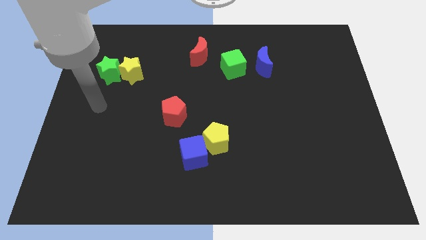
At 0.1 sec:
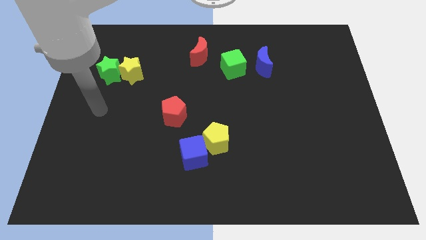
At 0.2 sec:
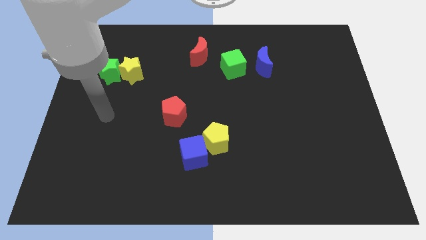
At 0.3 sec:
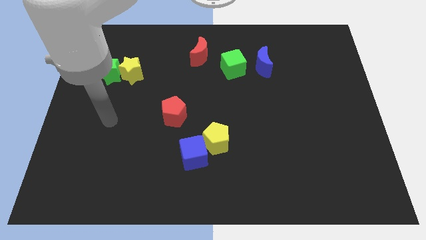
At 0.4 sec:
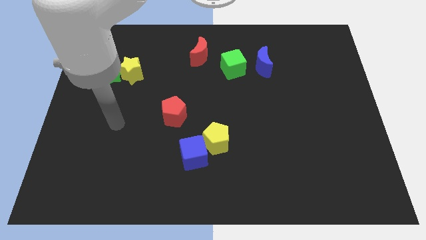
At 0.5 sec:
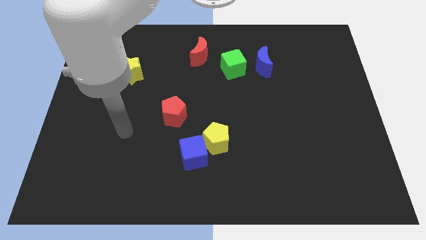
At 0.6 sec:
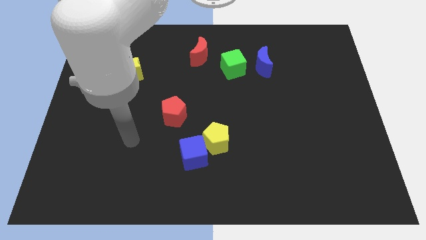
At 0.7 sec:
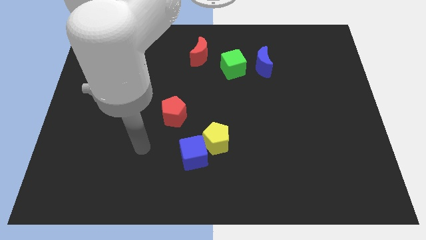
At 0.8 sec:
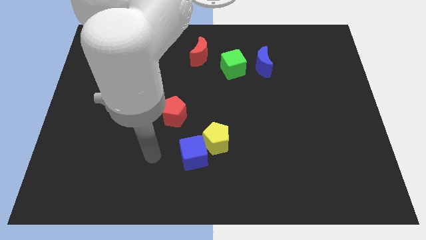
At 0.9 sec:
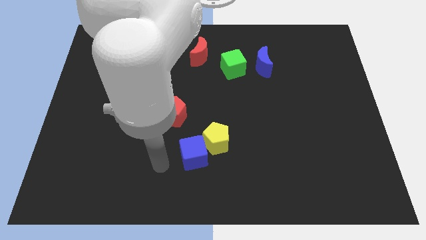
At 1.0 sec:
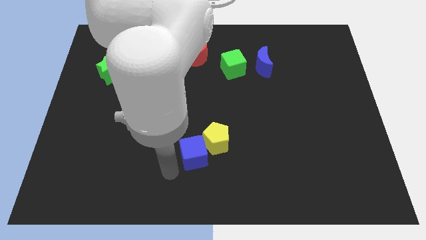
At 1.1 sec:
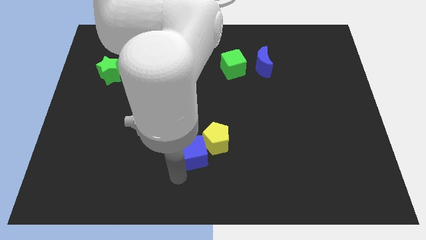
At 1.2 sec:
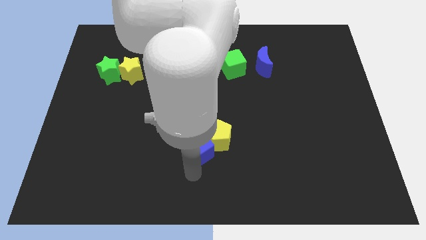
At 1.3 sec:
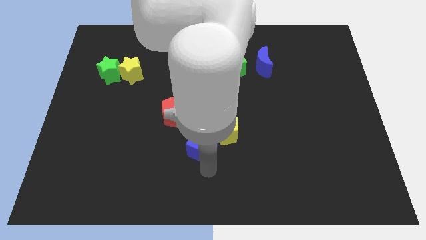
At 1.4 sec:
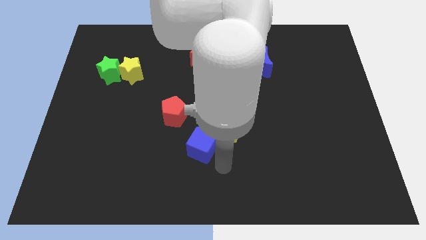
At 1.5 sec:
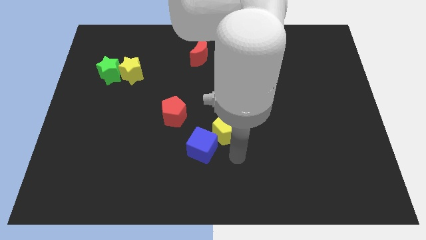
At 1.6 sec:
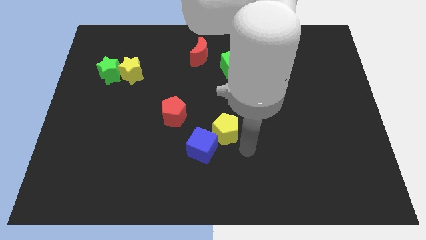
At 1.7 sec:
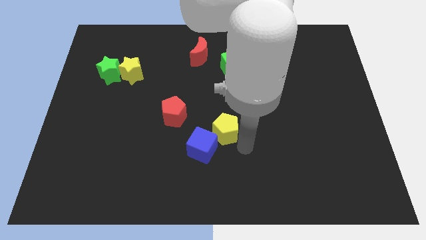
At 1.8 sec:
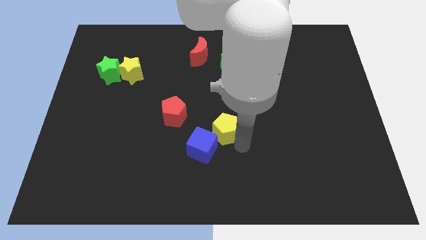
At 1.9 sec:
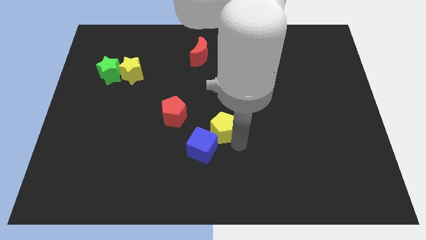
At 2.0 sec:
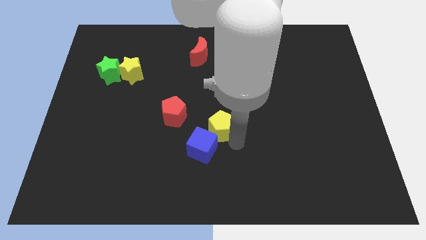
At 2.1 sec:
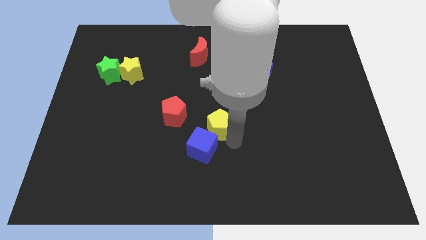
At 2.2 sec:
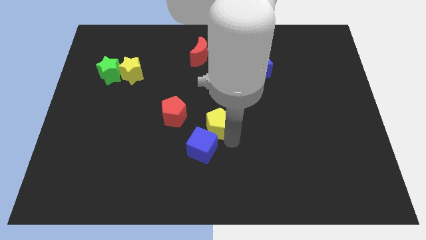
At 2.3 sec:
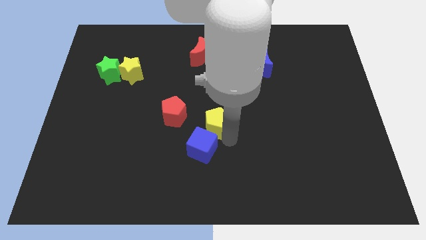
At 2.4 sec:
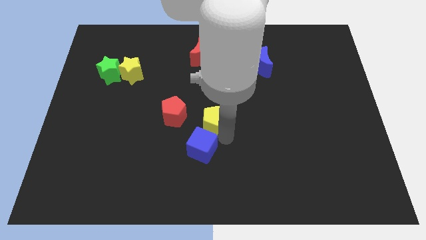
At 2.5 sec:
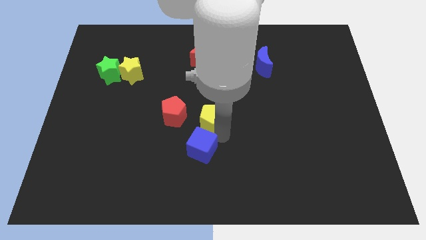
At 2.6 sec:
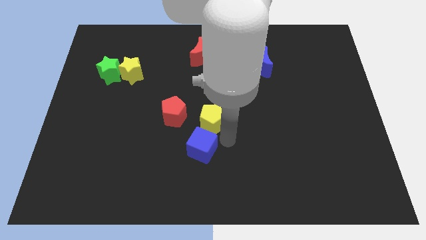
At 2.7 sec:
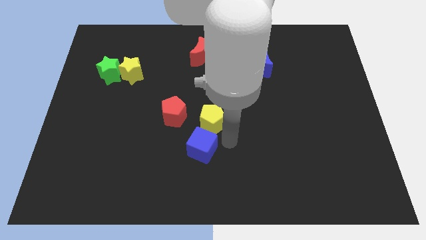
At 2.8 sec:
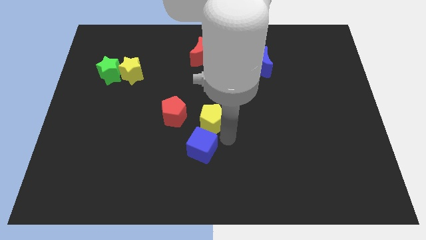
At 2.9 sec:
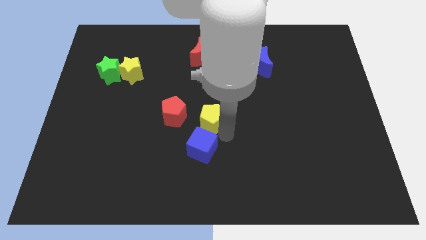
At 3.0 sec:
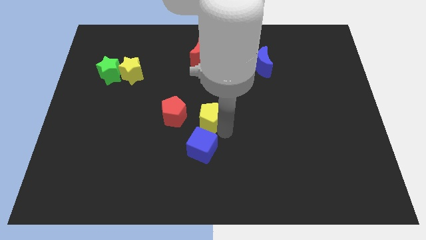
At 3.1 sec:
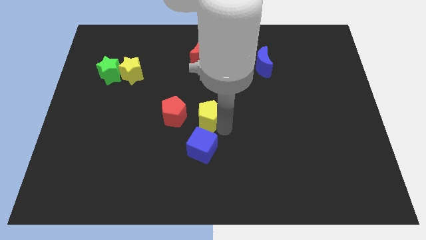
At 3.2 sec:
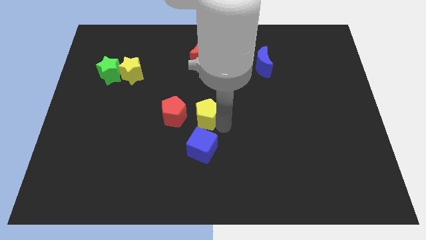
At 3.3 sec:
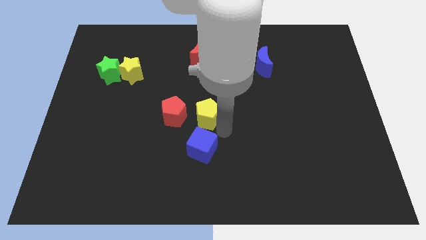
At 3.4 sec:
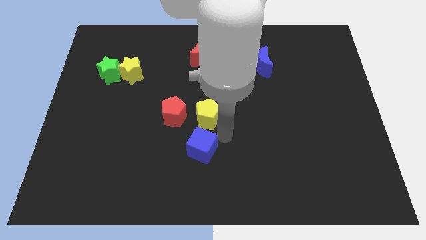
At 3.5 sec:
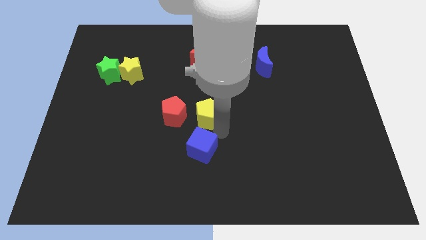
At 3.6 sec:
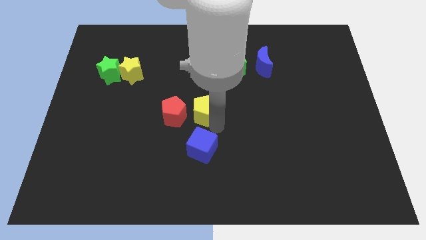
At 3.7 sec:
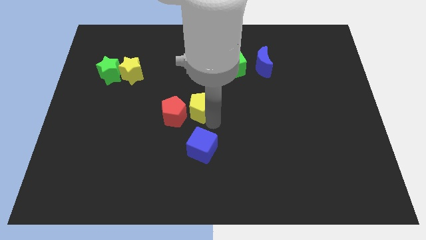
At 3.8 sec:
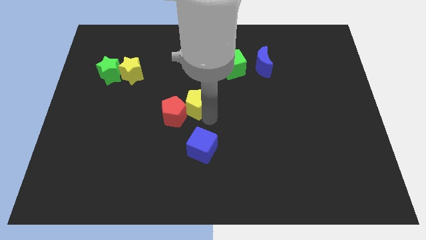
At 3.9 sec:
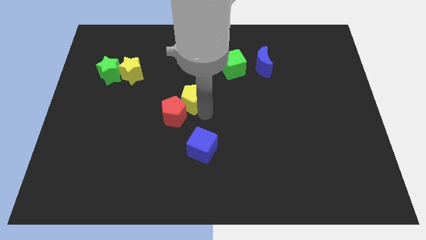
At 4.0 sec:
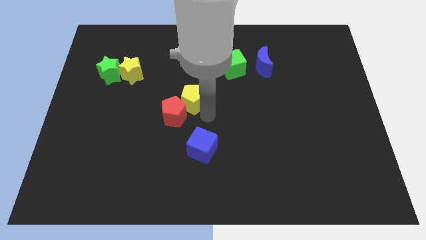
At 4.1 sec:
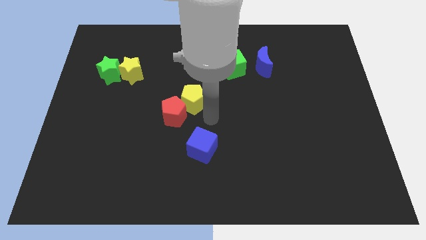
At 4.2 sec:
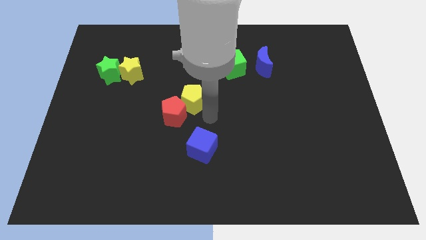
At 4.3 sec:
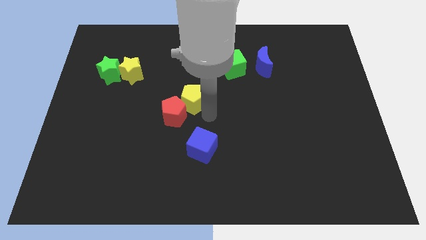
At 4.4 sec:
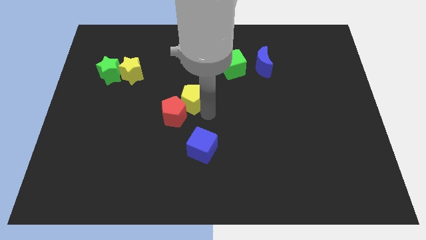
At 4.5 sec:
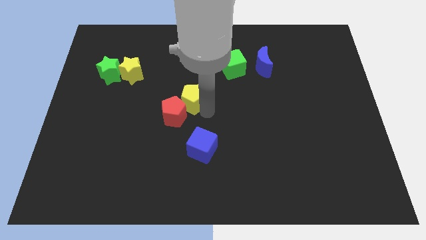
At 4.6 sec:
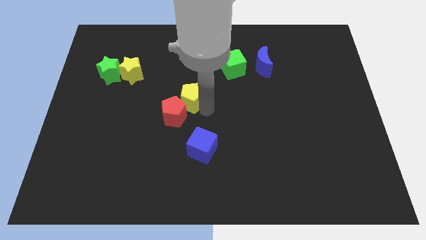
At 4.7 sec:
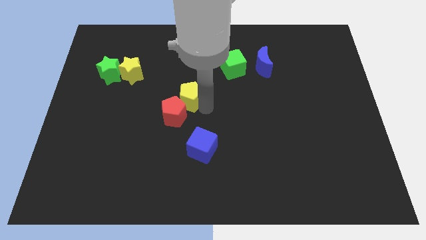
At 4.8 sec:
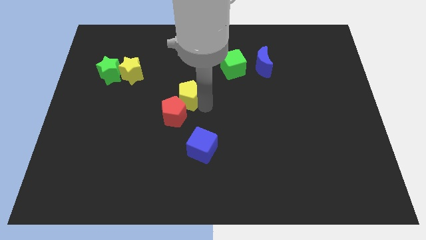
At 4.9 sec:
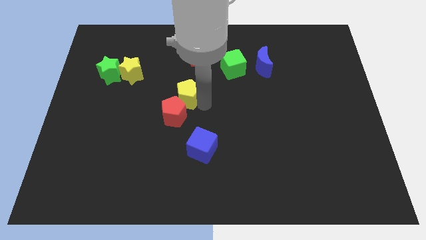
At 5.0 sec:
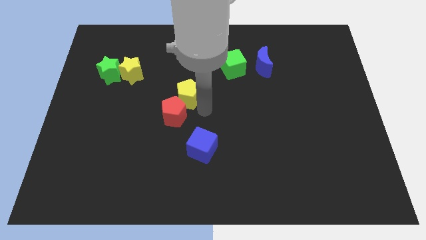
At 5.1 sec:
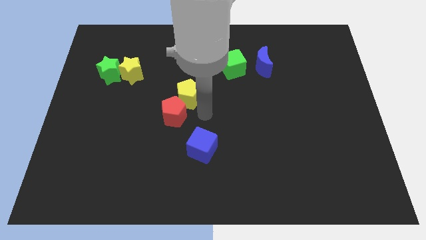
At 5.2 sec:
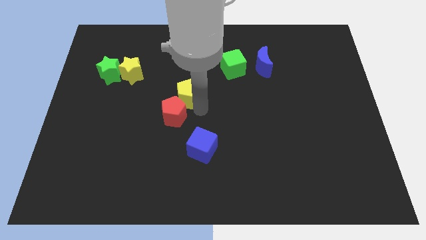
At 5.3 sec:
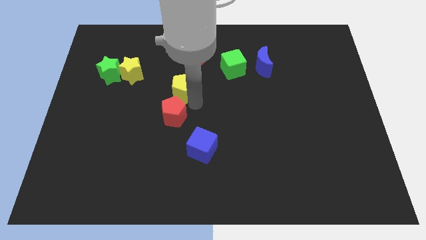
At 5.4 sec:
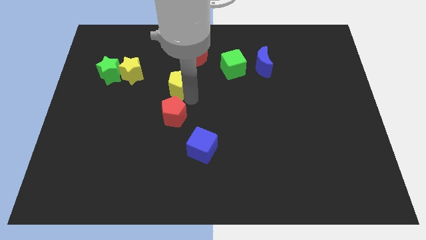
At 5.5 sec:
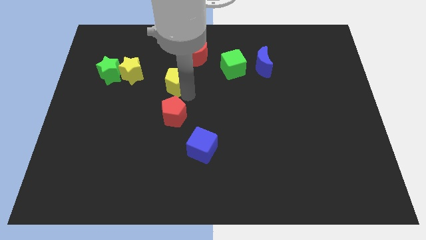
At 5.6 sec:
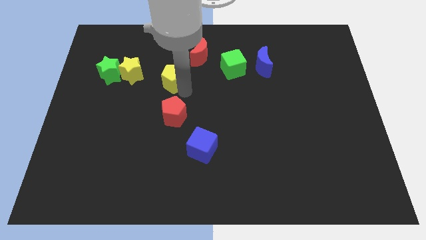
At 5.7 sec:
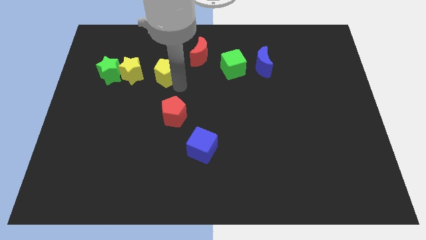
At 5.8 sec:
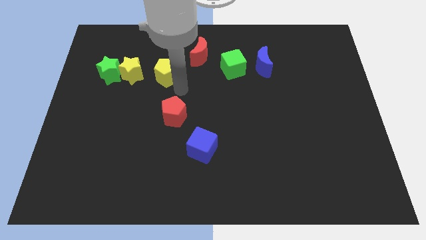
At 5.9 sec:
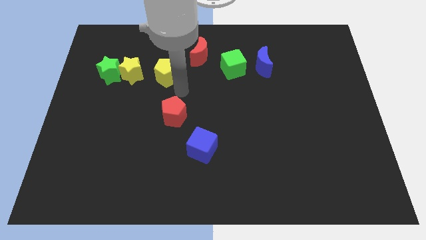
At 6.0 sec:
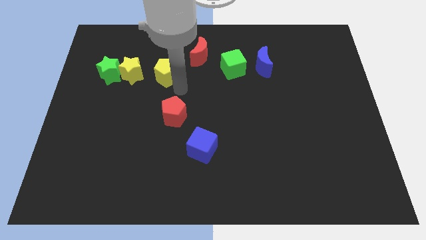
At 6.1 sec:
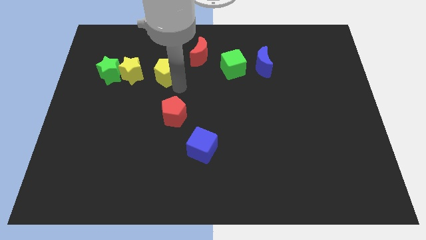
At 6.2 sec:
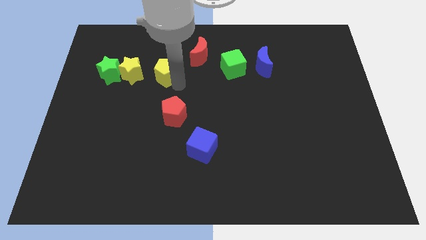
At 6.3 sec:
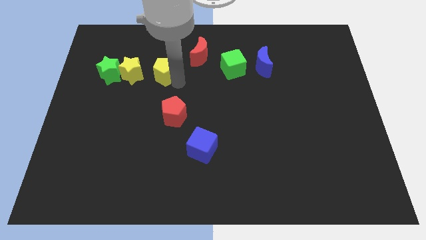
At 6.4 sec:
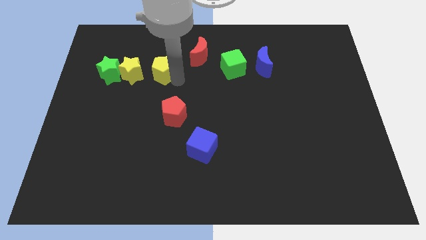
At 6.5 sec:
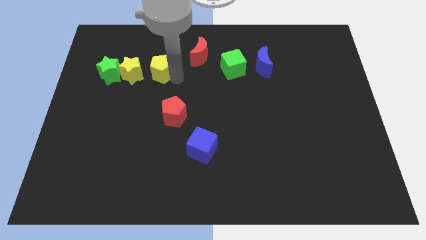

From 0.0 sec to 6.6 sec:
push the yellow pentagon diagonally up and to the right of the yellow star

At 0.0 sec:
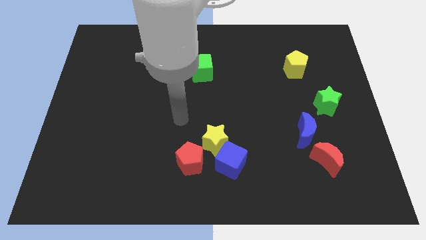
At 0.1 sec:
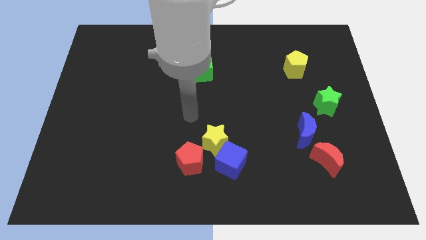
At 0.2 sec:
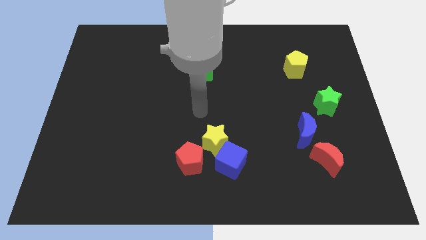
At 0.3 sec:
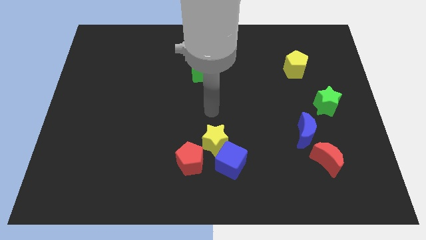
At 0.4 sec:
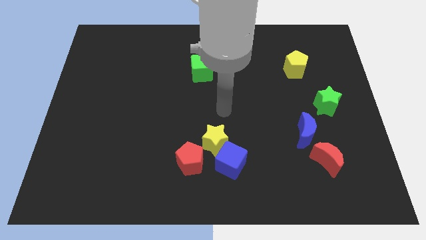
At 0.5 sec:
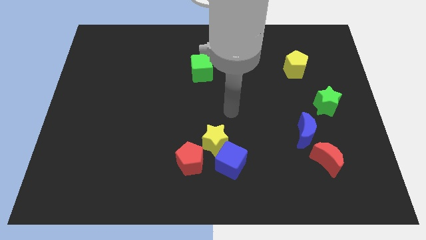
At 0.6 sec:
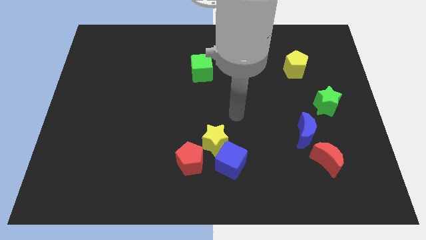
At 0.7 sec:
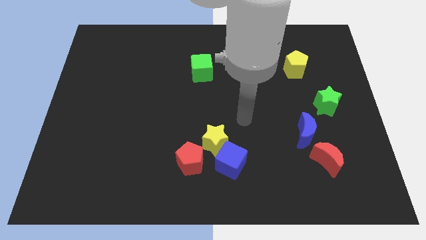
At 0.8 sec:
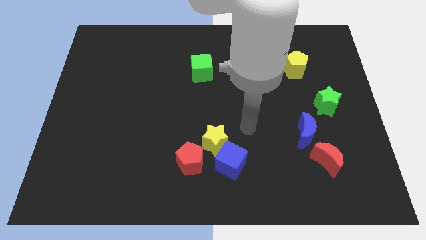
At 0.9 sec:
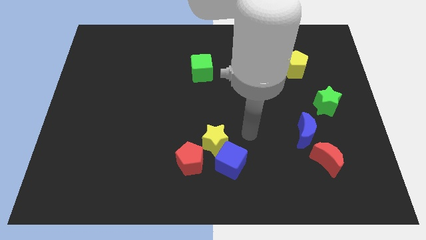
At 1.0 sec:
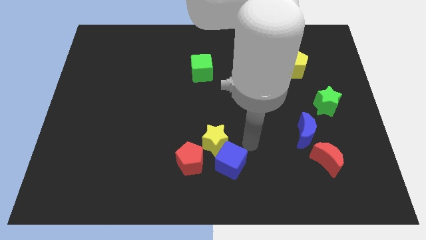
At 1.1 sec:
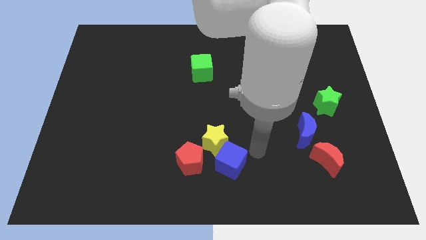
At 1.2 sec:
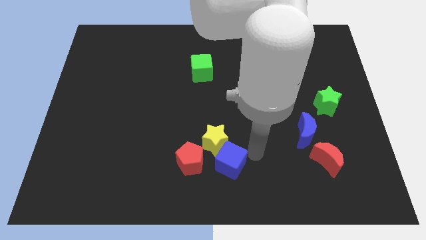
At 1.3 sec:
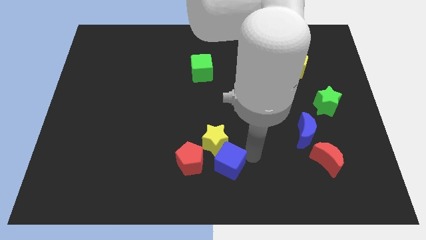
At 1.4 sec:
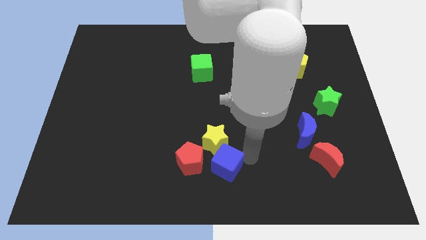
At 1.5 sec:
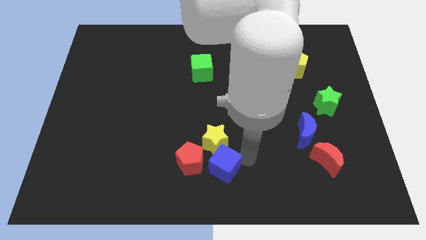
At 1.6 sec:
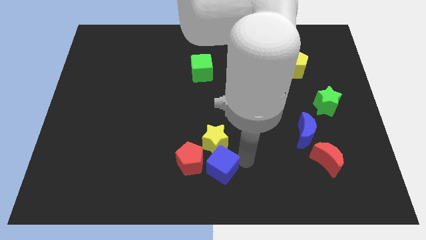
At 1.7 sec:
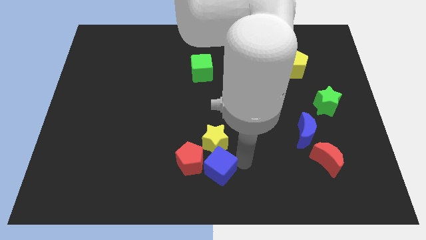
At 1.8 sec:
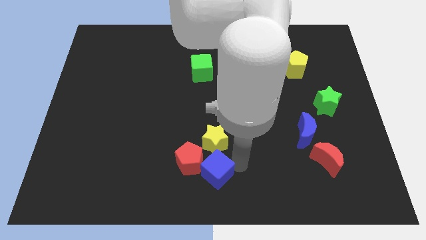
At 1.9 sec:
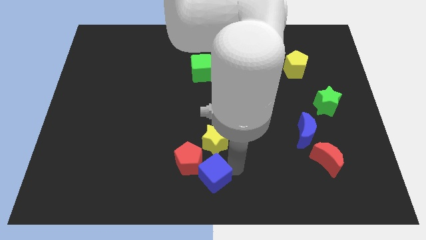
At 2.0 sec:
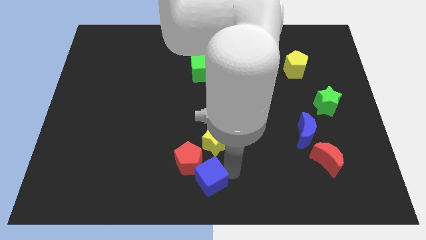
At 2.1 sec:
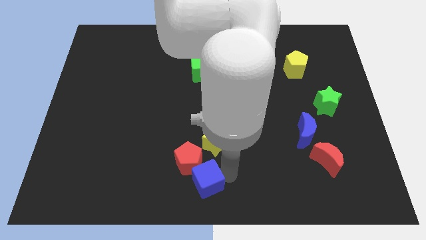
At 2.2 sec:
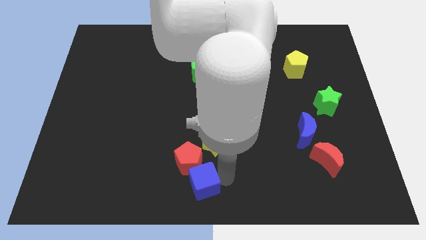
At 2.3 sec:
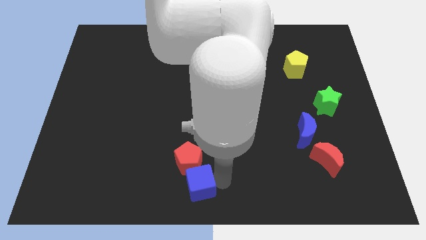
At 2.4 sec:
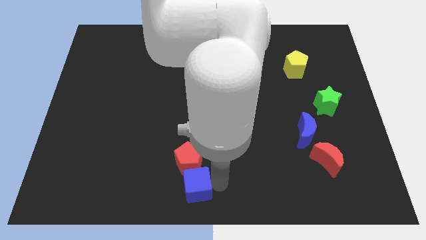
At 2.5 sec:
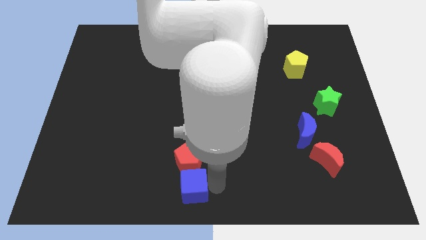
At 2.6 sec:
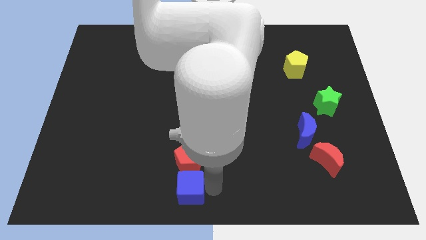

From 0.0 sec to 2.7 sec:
move the blue cube to the bottom left side of the red pentagon
